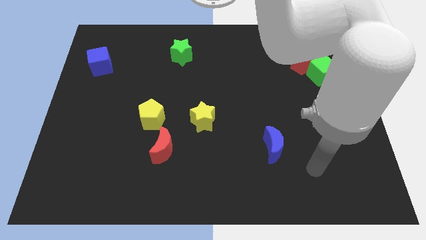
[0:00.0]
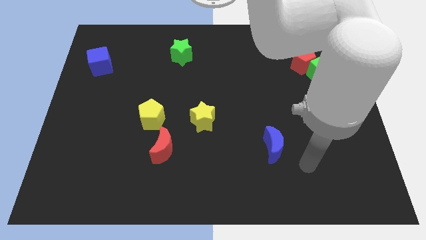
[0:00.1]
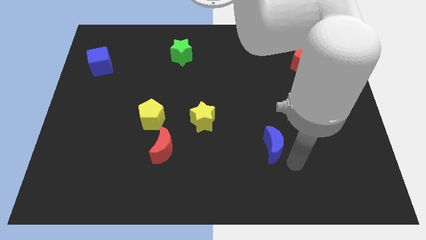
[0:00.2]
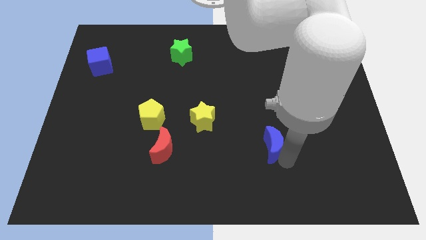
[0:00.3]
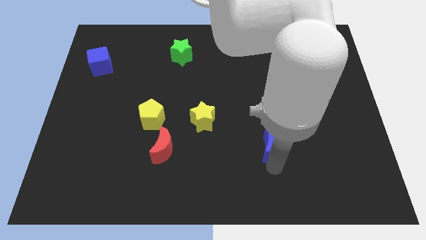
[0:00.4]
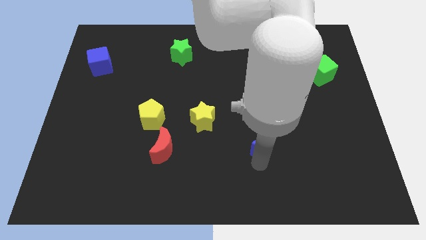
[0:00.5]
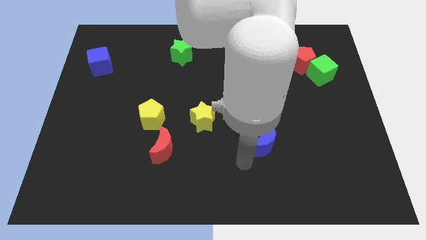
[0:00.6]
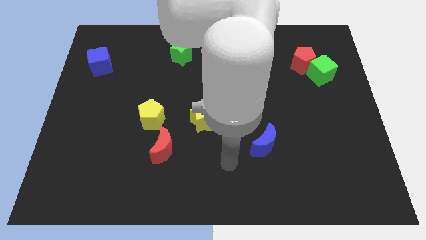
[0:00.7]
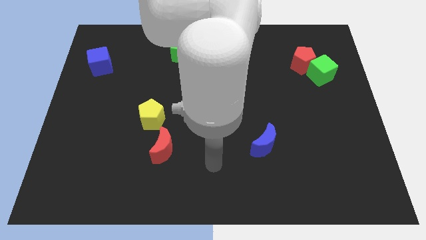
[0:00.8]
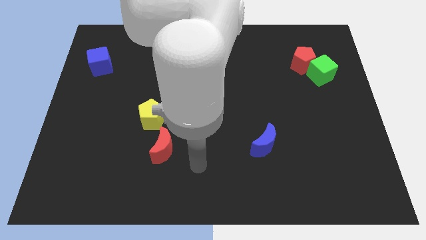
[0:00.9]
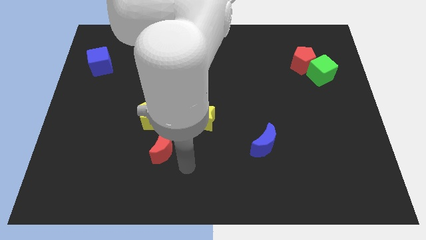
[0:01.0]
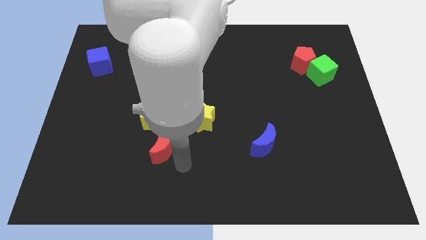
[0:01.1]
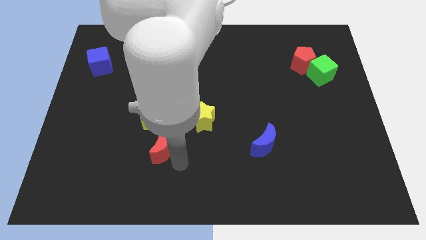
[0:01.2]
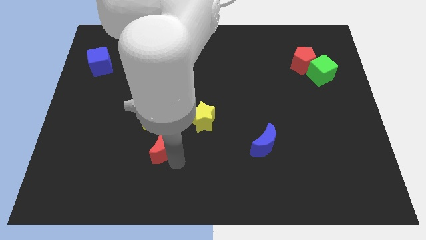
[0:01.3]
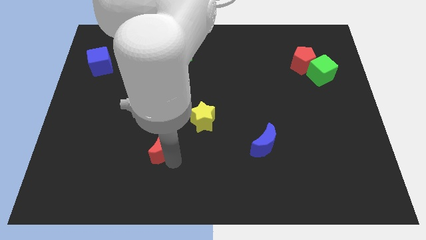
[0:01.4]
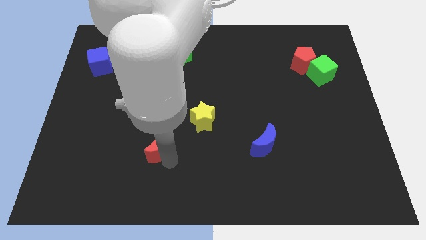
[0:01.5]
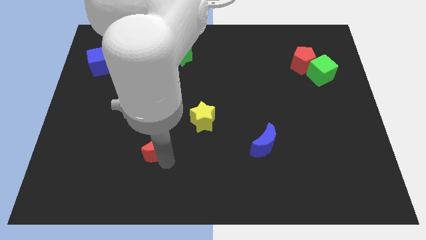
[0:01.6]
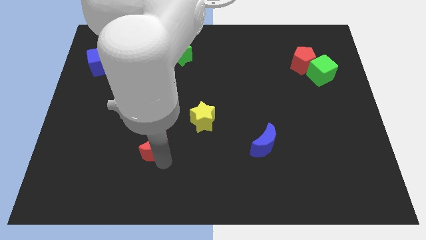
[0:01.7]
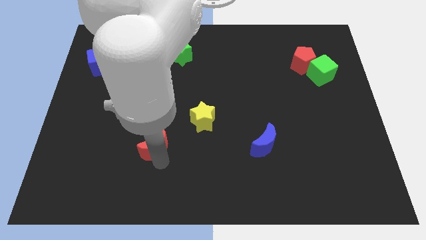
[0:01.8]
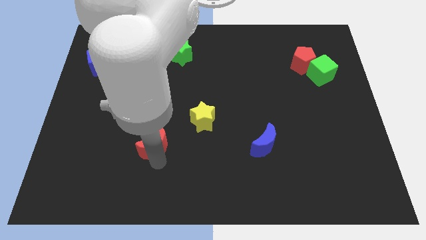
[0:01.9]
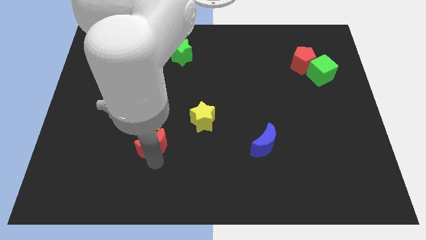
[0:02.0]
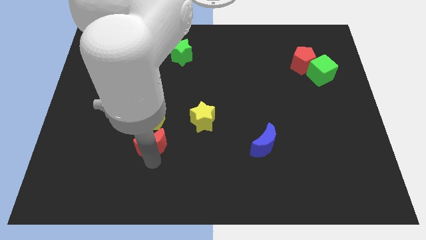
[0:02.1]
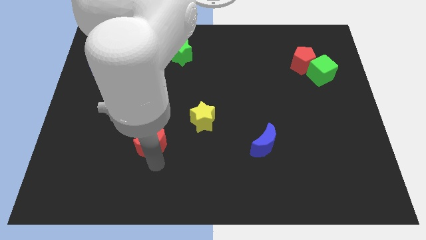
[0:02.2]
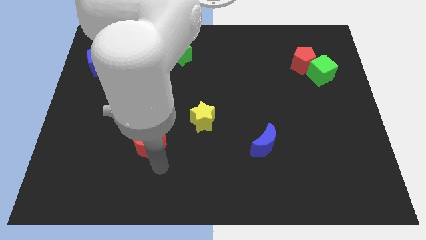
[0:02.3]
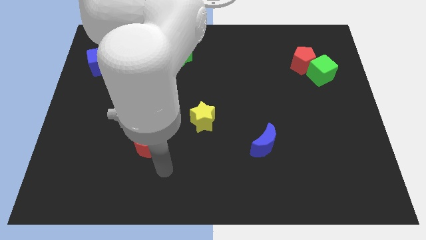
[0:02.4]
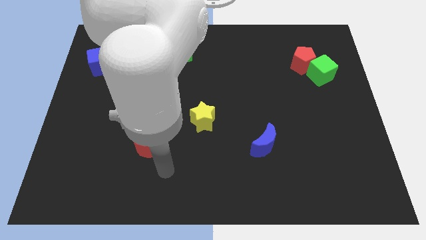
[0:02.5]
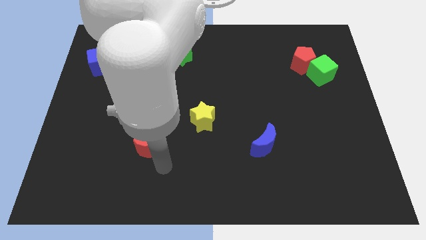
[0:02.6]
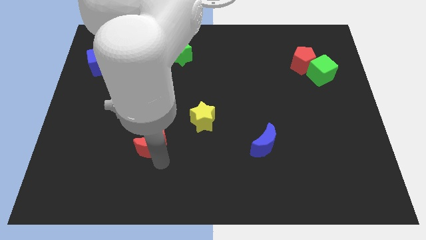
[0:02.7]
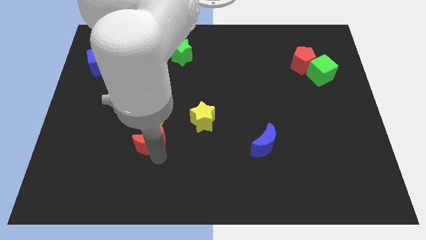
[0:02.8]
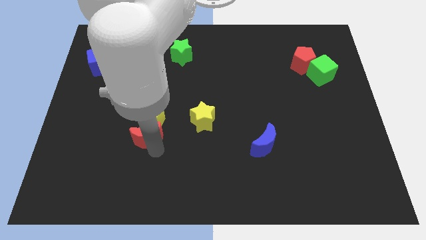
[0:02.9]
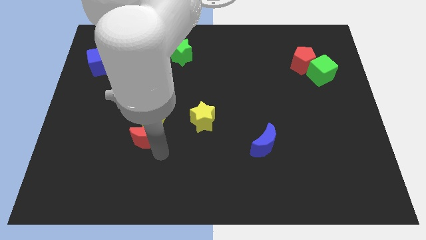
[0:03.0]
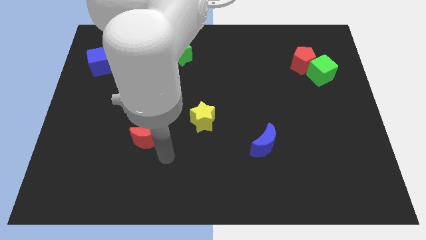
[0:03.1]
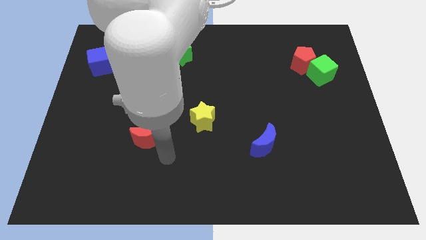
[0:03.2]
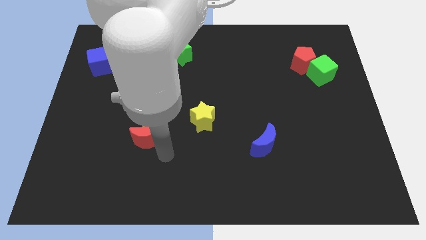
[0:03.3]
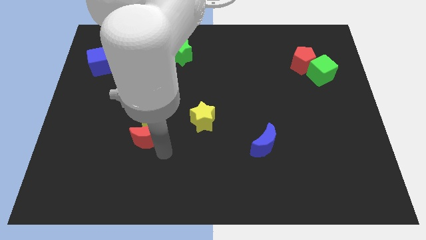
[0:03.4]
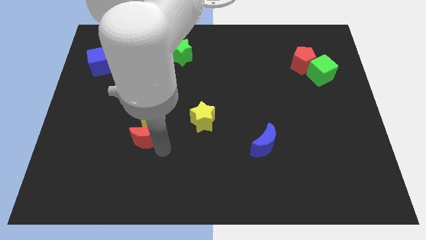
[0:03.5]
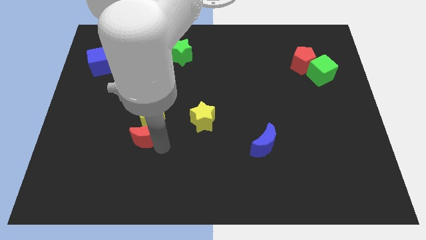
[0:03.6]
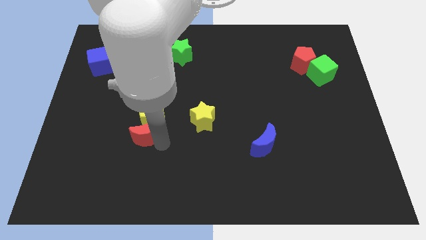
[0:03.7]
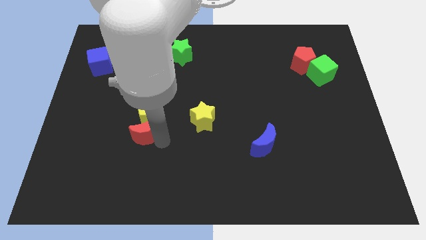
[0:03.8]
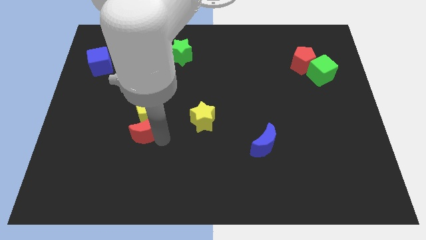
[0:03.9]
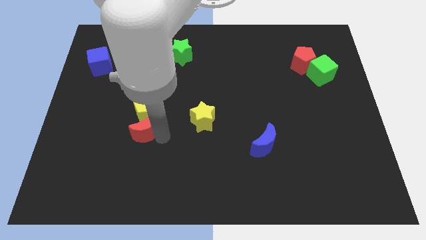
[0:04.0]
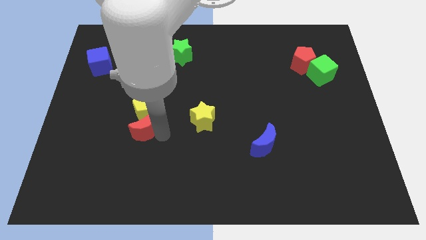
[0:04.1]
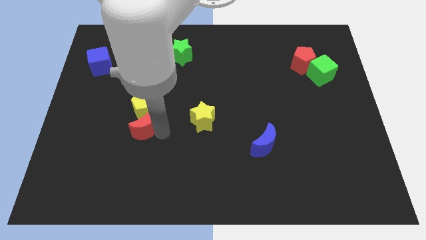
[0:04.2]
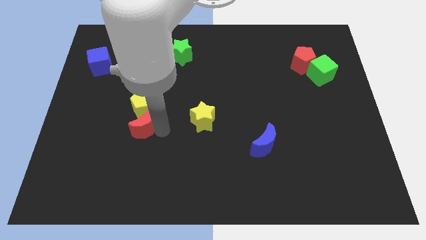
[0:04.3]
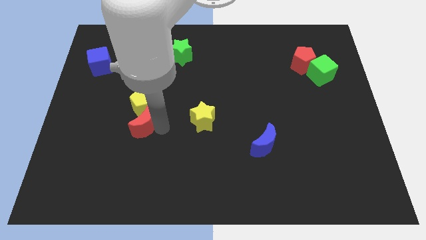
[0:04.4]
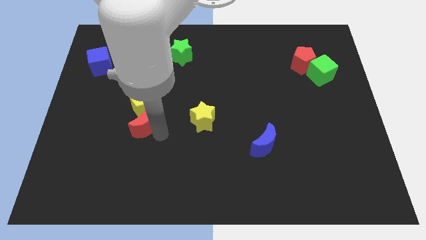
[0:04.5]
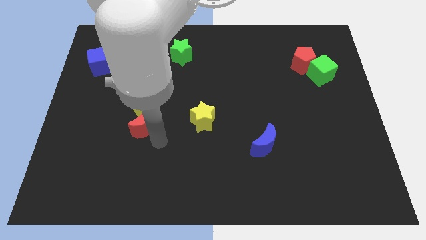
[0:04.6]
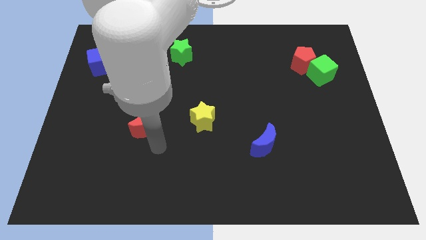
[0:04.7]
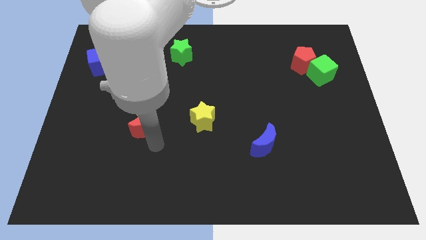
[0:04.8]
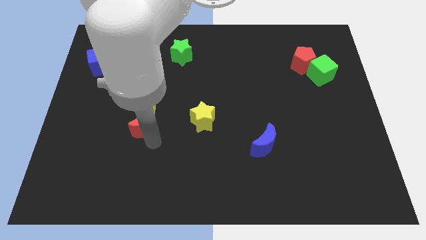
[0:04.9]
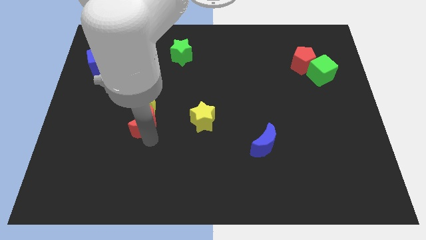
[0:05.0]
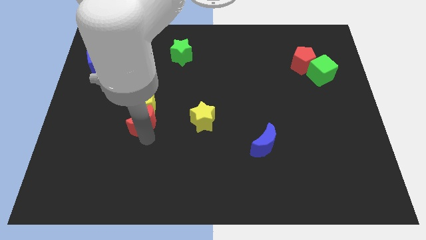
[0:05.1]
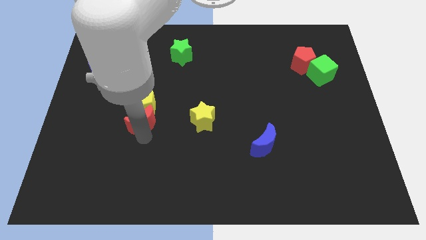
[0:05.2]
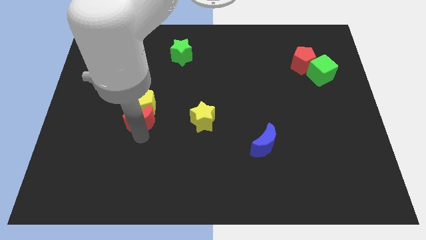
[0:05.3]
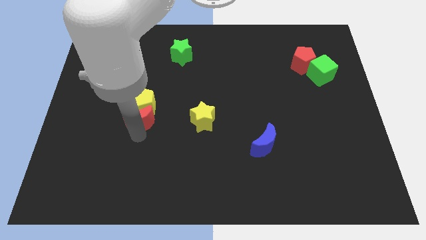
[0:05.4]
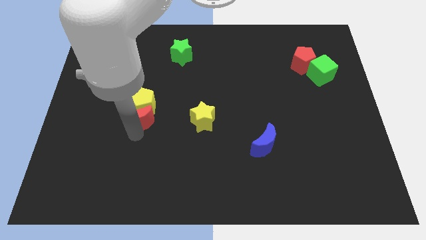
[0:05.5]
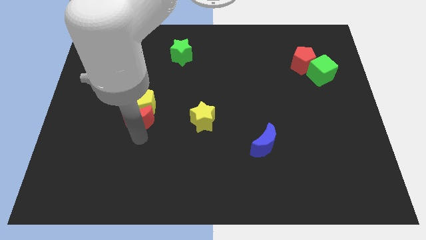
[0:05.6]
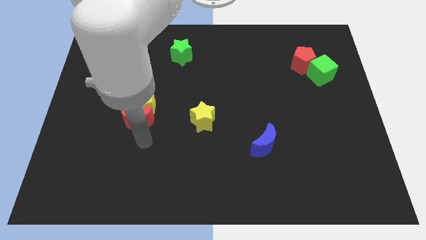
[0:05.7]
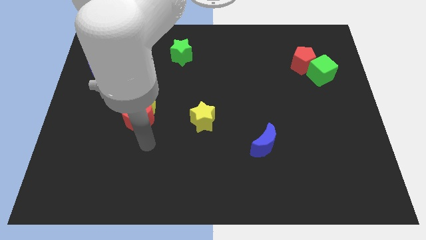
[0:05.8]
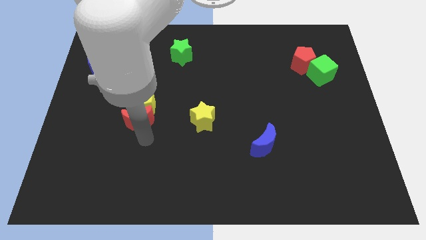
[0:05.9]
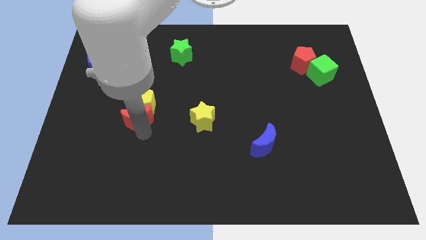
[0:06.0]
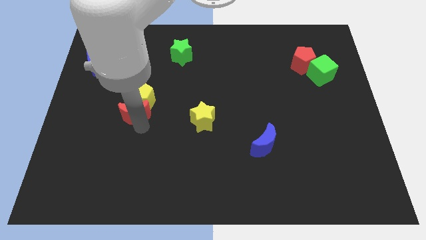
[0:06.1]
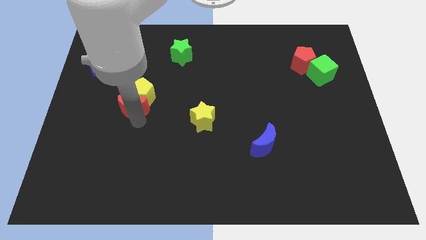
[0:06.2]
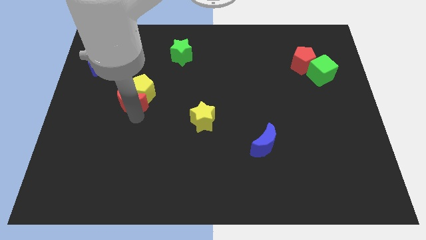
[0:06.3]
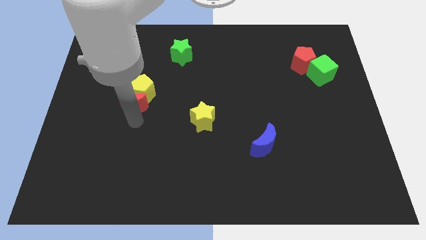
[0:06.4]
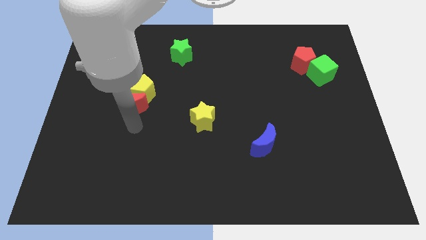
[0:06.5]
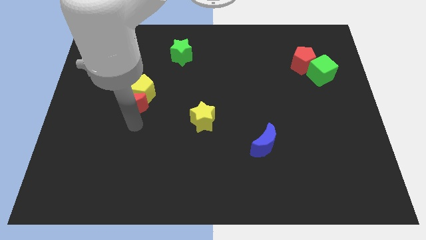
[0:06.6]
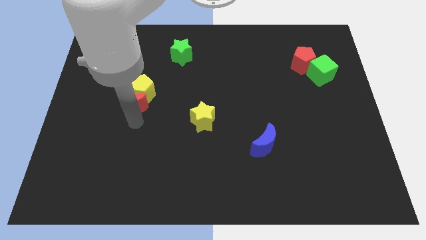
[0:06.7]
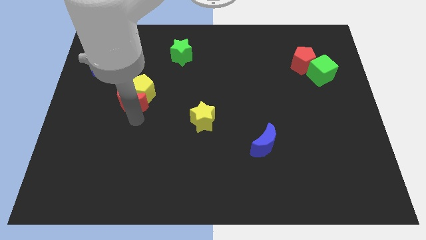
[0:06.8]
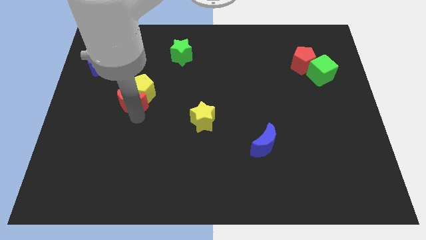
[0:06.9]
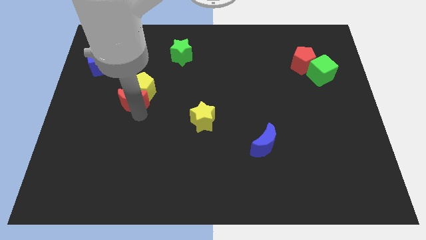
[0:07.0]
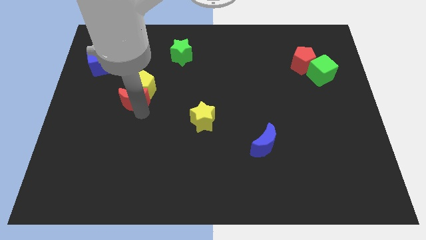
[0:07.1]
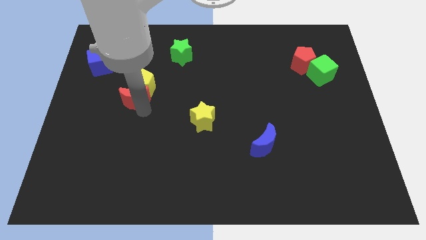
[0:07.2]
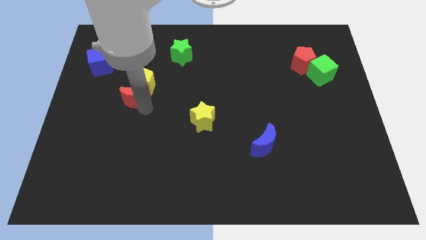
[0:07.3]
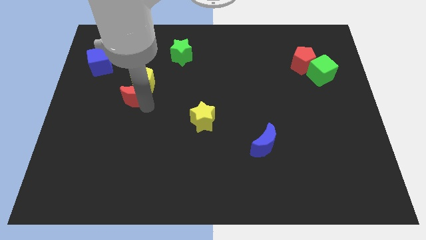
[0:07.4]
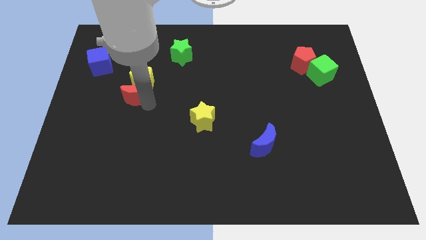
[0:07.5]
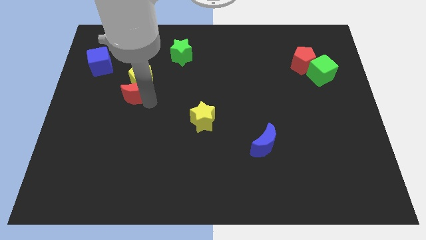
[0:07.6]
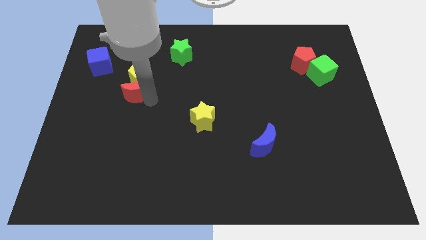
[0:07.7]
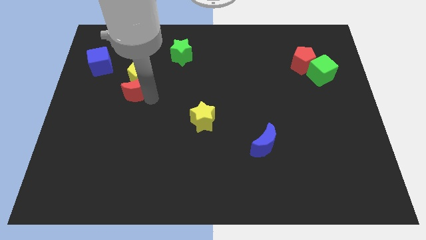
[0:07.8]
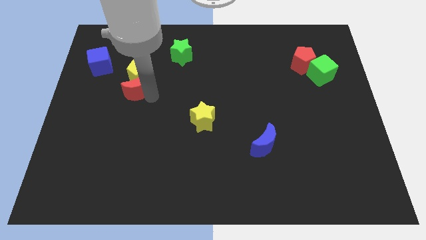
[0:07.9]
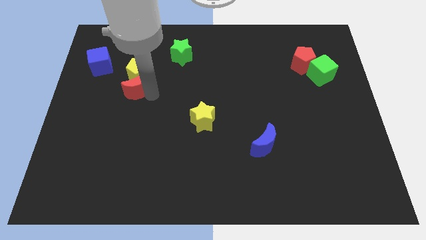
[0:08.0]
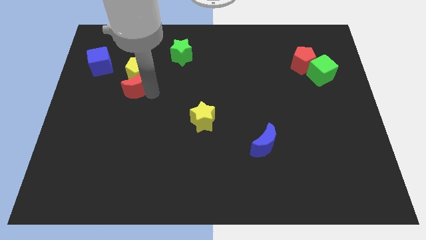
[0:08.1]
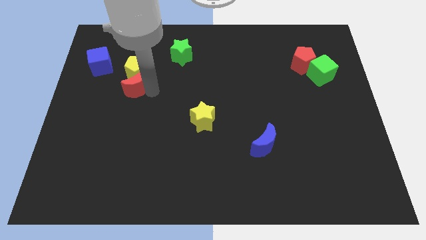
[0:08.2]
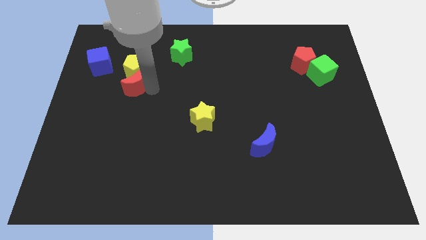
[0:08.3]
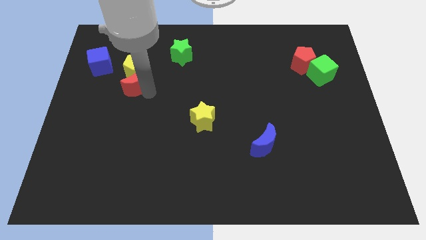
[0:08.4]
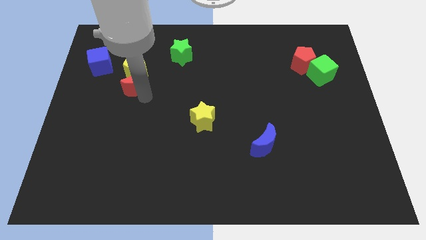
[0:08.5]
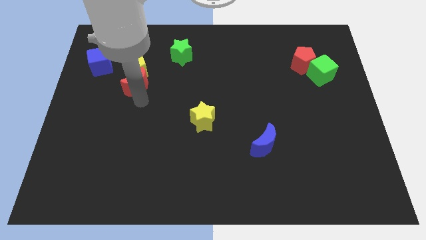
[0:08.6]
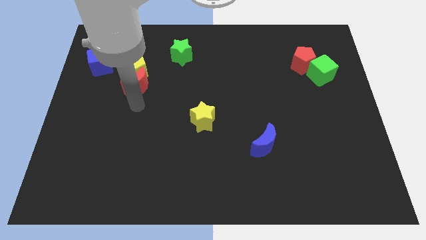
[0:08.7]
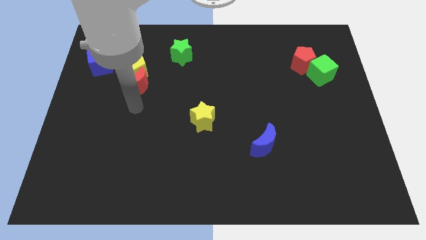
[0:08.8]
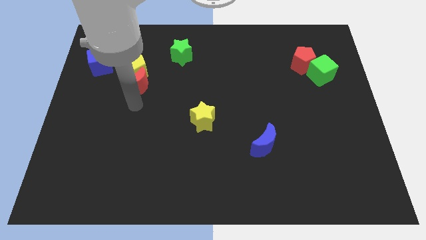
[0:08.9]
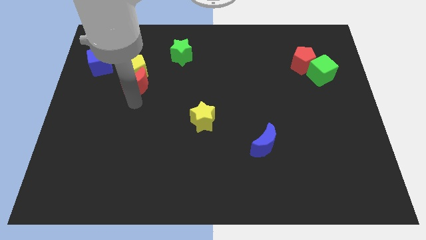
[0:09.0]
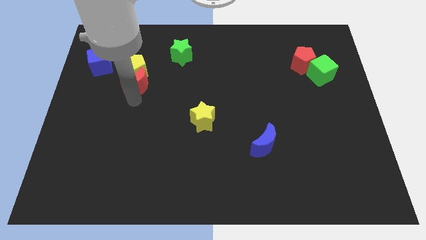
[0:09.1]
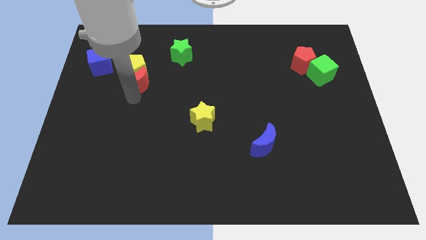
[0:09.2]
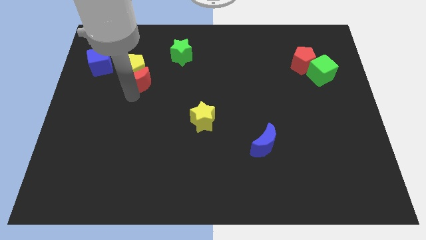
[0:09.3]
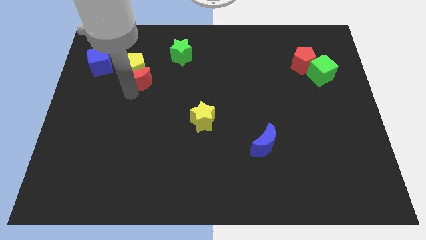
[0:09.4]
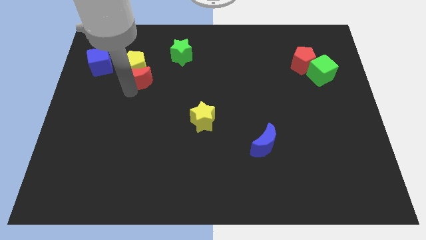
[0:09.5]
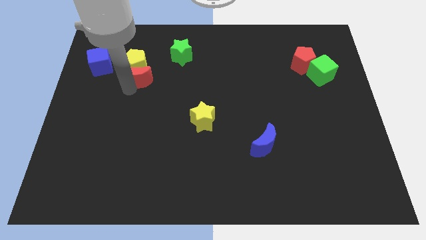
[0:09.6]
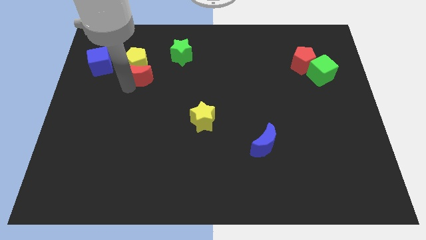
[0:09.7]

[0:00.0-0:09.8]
slide the red moon to the right of the blue cube
